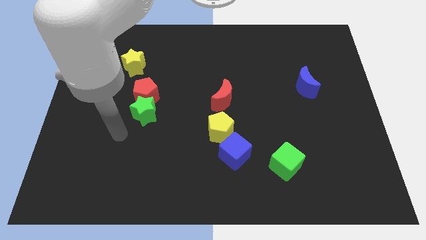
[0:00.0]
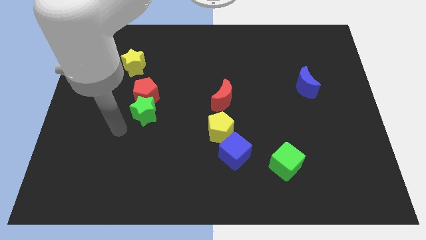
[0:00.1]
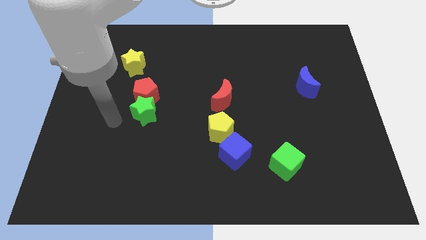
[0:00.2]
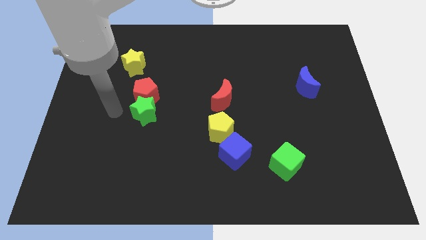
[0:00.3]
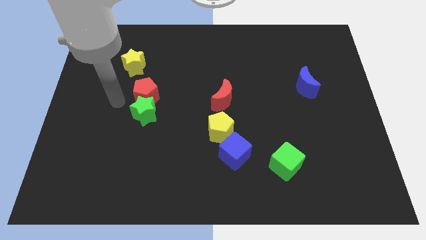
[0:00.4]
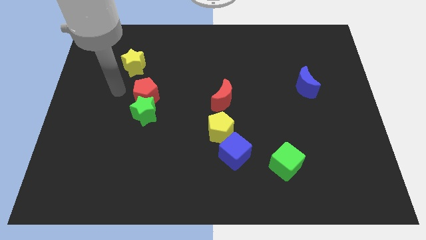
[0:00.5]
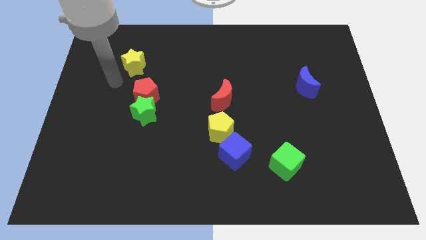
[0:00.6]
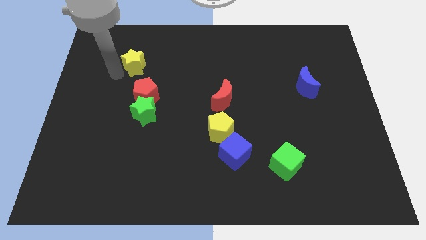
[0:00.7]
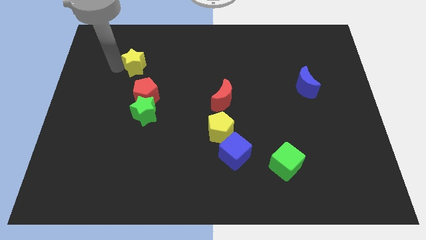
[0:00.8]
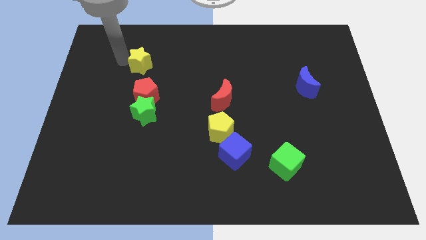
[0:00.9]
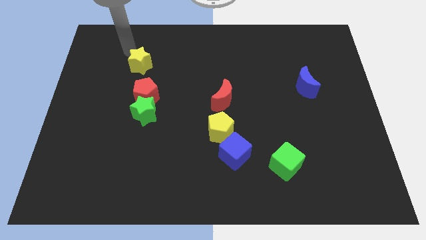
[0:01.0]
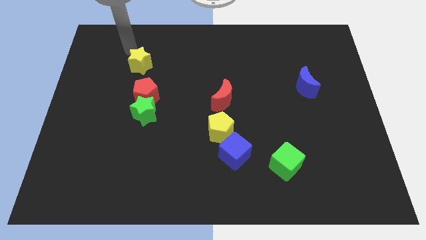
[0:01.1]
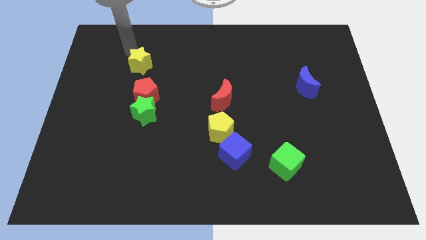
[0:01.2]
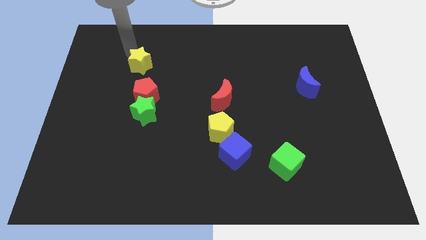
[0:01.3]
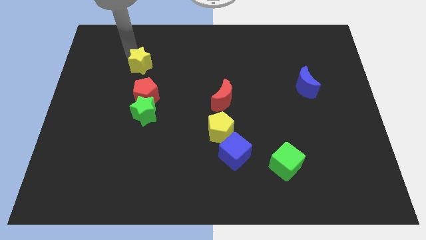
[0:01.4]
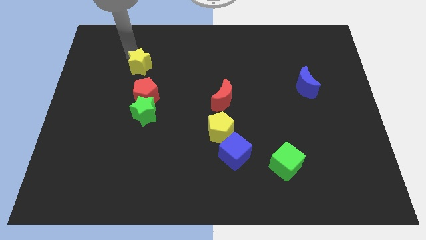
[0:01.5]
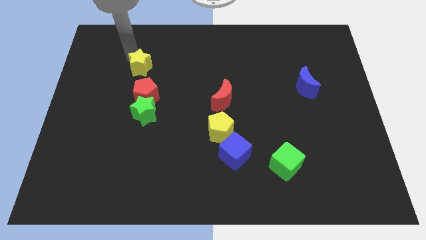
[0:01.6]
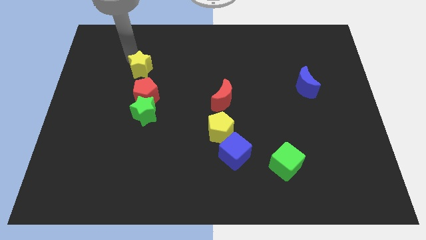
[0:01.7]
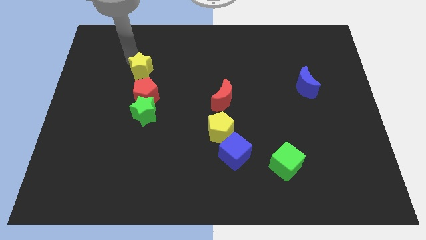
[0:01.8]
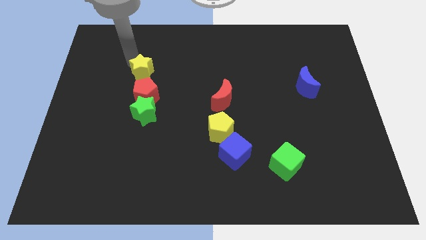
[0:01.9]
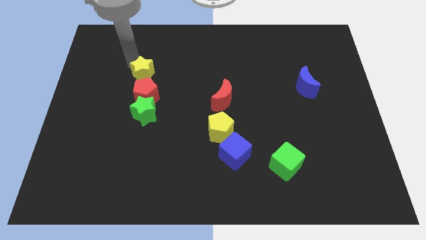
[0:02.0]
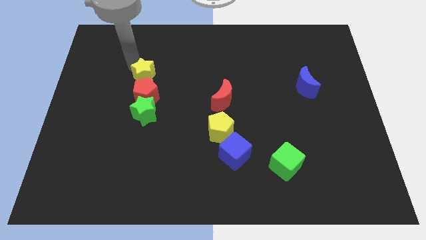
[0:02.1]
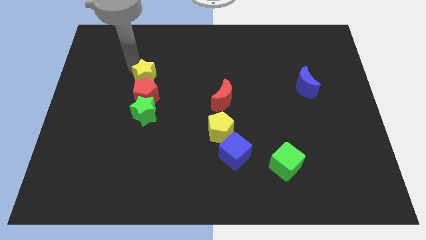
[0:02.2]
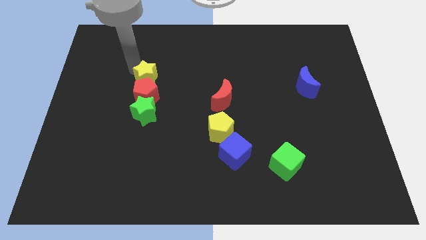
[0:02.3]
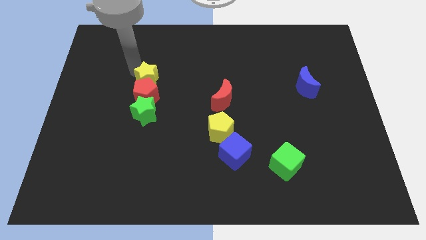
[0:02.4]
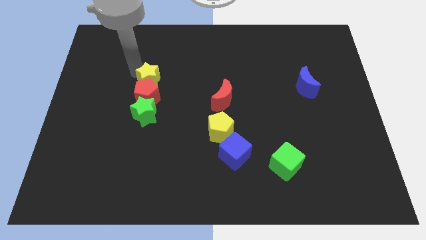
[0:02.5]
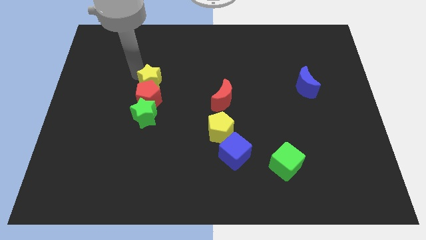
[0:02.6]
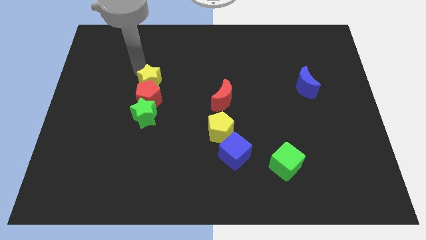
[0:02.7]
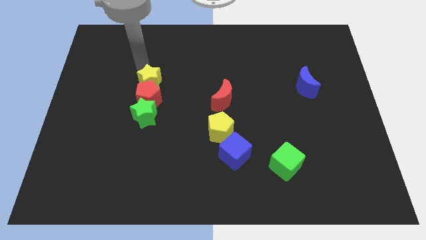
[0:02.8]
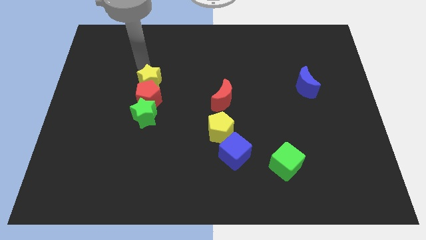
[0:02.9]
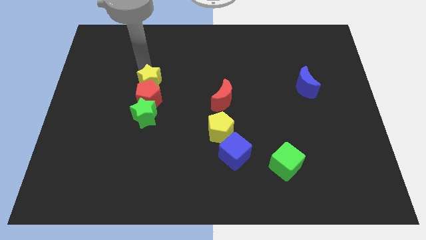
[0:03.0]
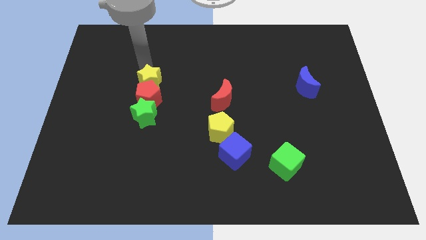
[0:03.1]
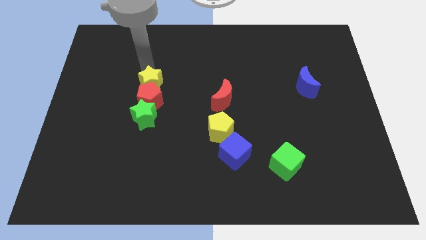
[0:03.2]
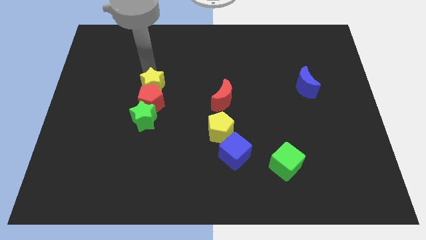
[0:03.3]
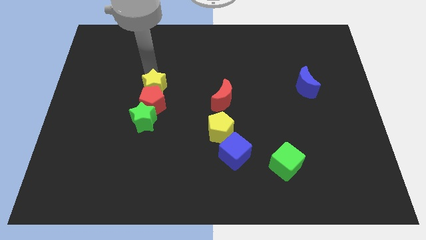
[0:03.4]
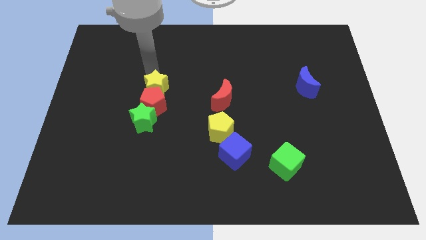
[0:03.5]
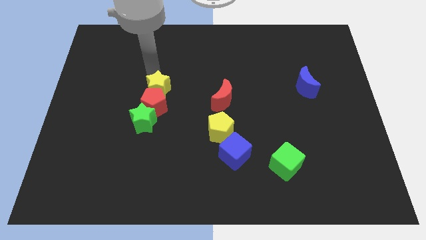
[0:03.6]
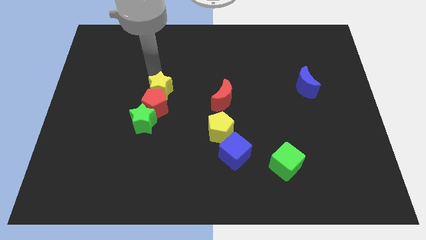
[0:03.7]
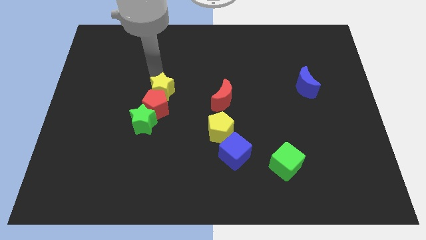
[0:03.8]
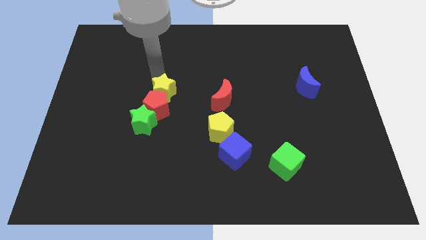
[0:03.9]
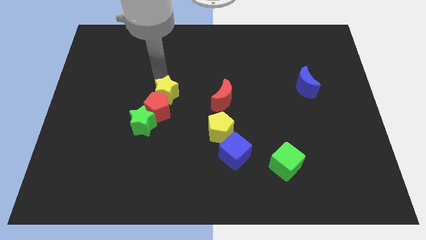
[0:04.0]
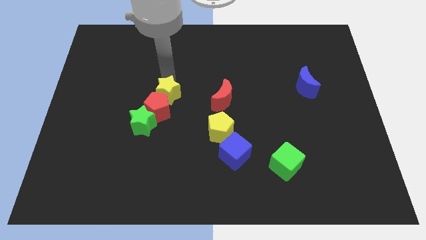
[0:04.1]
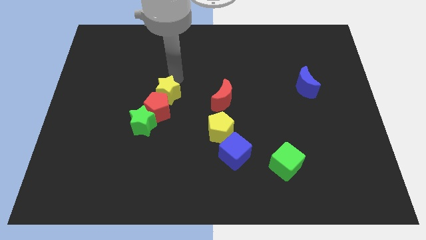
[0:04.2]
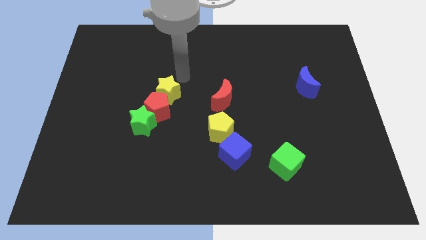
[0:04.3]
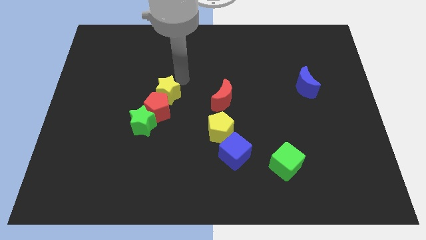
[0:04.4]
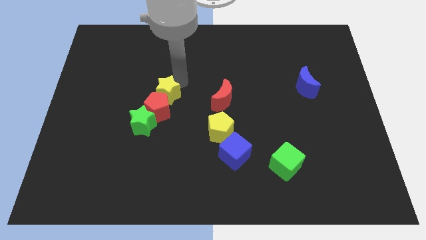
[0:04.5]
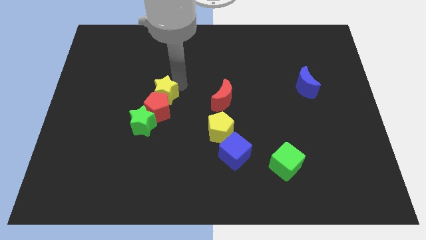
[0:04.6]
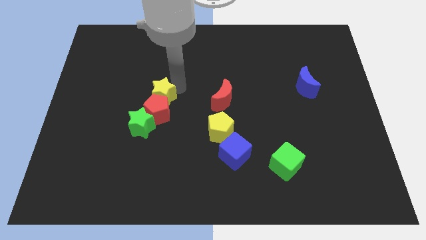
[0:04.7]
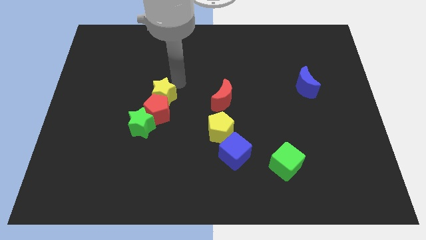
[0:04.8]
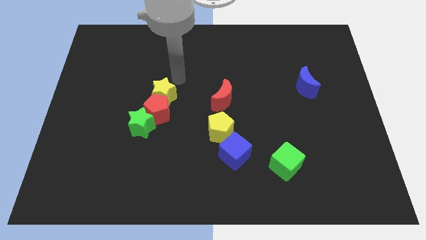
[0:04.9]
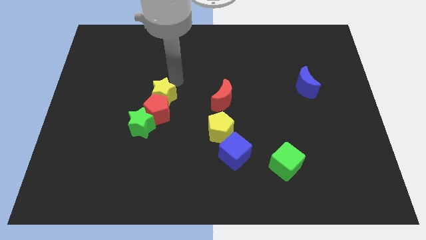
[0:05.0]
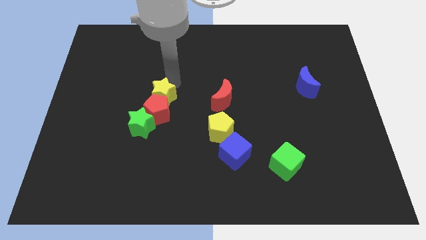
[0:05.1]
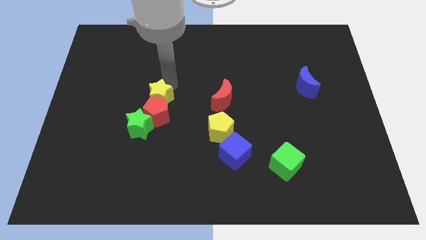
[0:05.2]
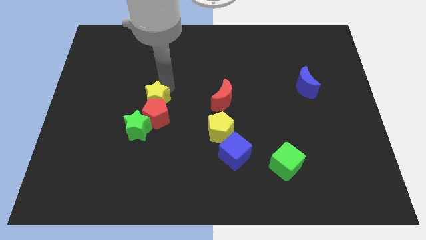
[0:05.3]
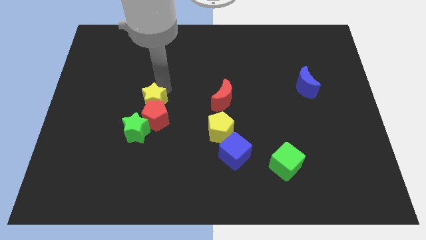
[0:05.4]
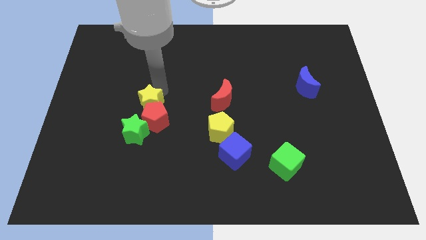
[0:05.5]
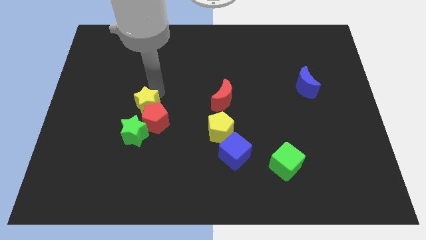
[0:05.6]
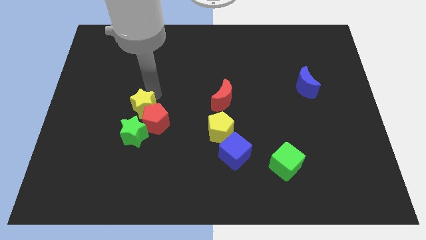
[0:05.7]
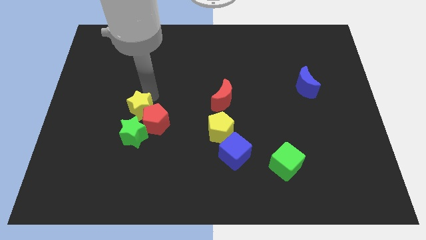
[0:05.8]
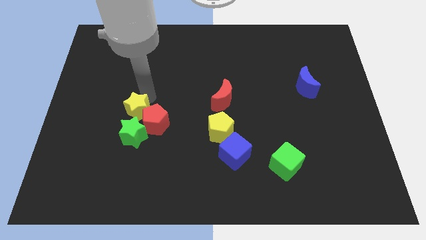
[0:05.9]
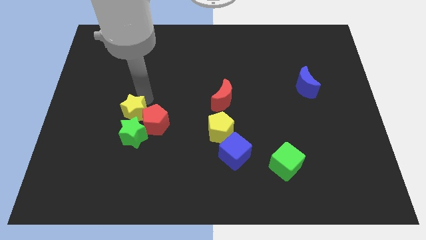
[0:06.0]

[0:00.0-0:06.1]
move the yellow star next to the green star

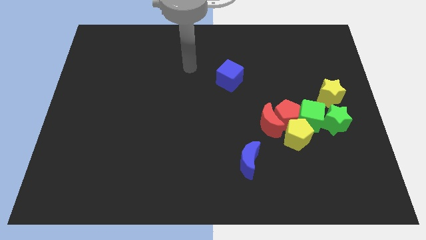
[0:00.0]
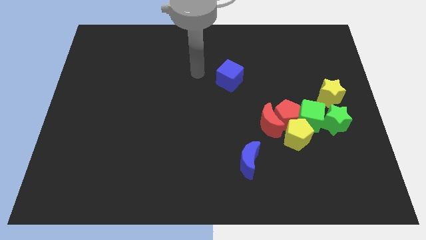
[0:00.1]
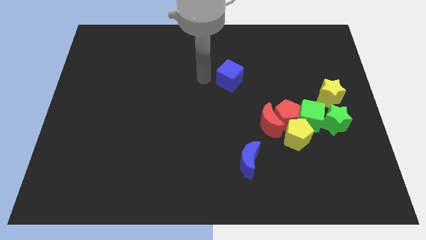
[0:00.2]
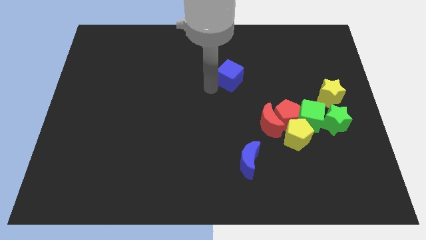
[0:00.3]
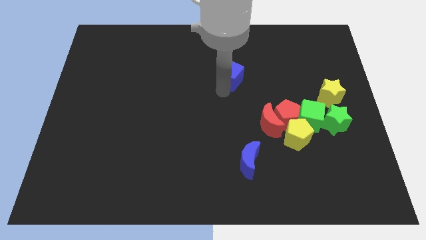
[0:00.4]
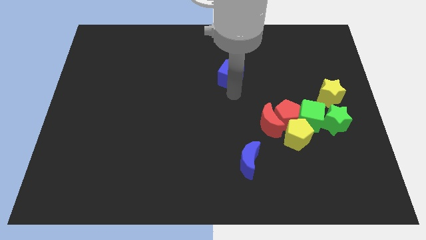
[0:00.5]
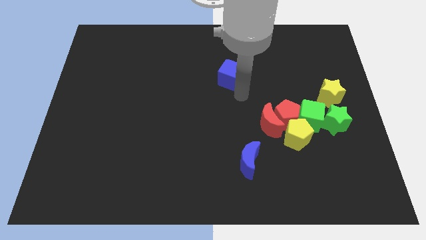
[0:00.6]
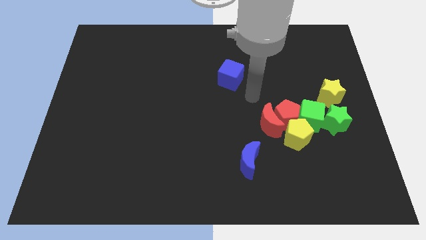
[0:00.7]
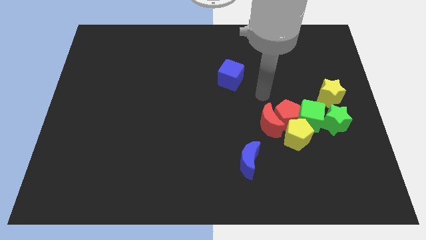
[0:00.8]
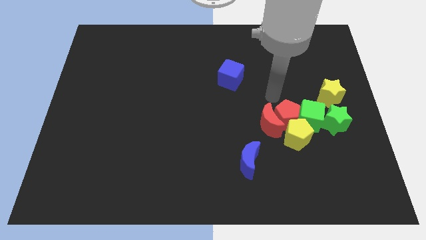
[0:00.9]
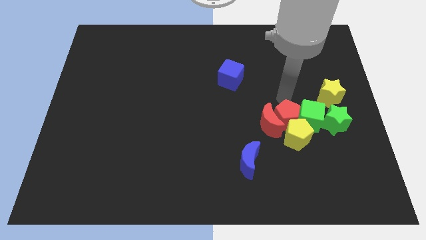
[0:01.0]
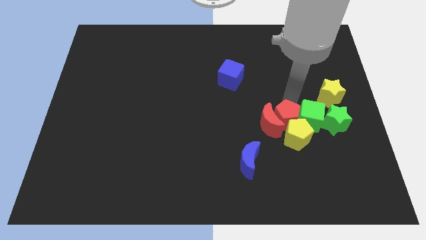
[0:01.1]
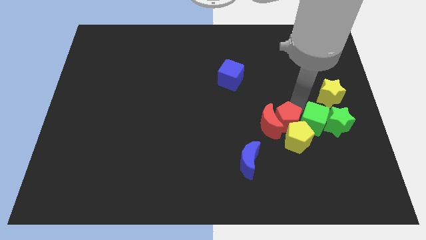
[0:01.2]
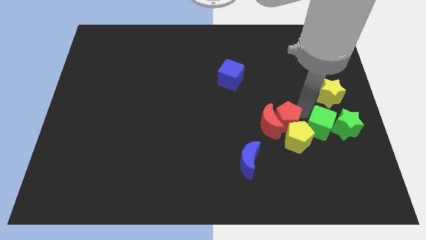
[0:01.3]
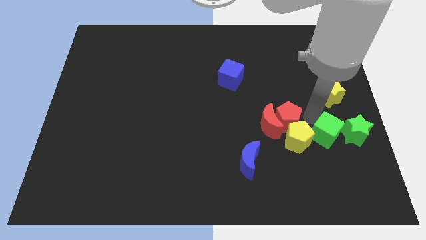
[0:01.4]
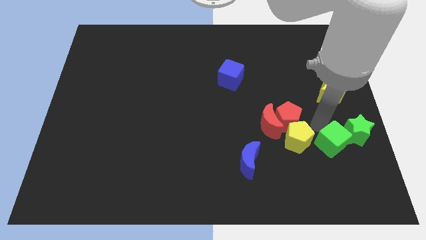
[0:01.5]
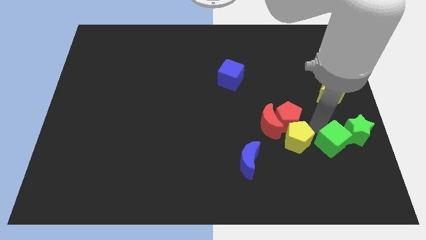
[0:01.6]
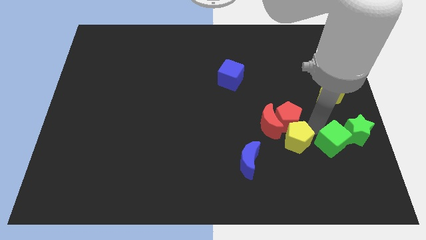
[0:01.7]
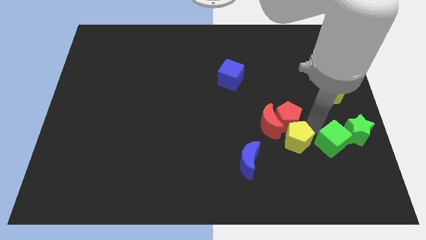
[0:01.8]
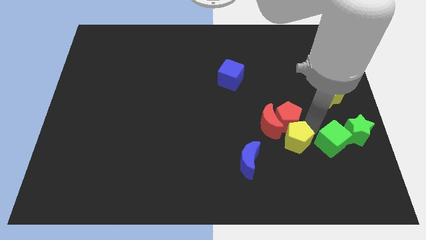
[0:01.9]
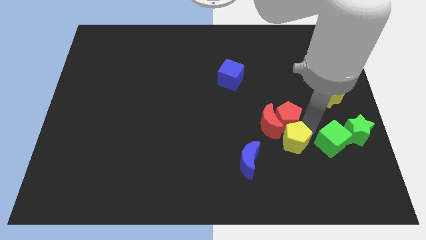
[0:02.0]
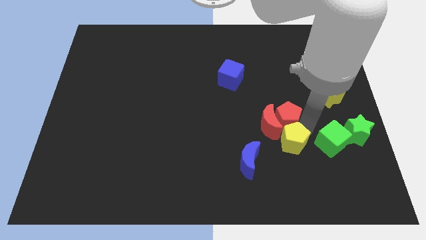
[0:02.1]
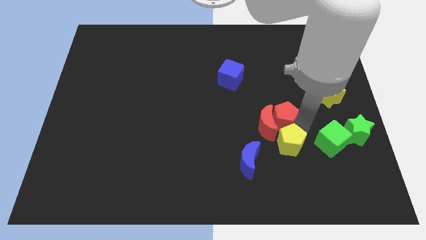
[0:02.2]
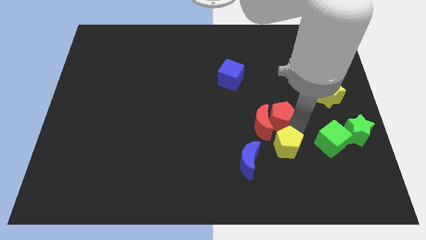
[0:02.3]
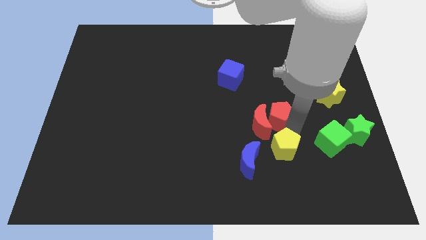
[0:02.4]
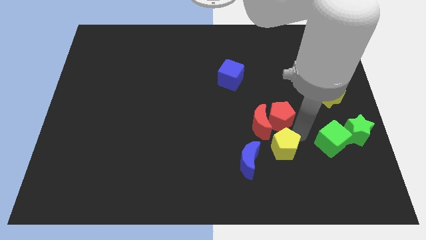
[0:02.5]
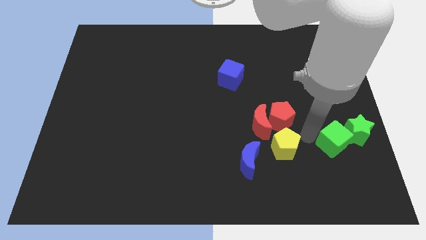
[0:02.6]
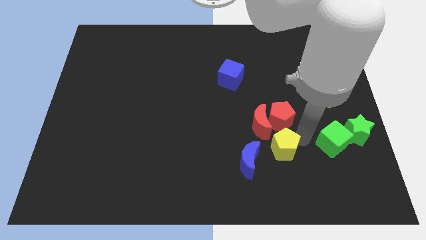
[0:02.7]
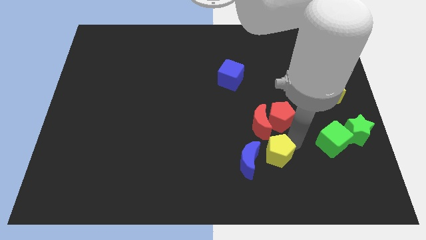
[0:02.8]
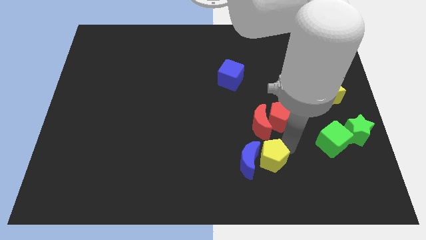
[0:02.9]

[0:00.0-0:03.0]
slide the yellow pentagon towards the blue moon
